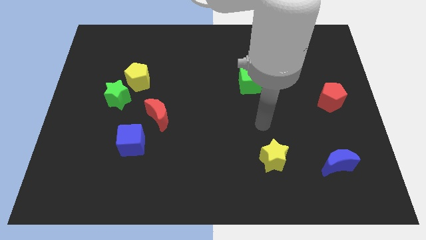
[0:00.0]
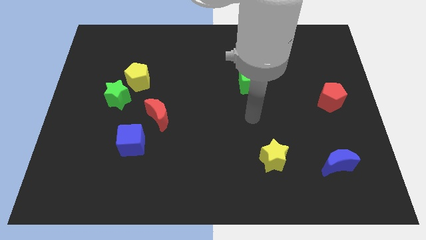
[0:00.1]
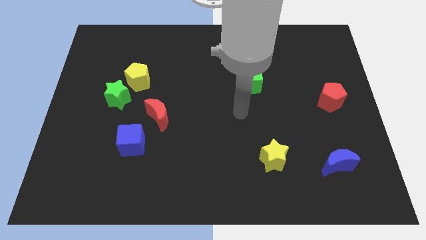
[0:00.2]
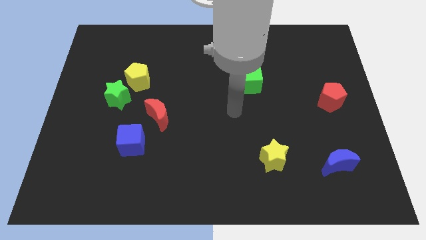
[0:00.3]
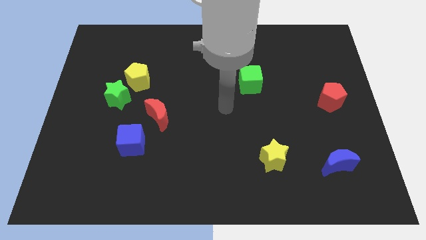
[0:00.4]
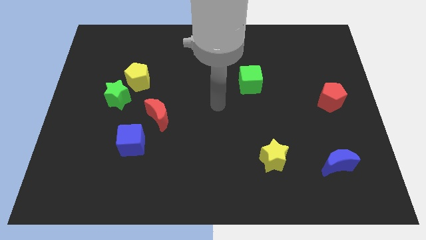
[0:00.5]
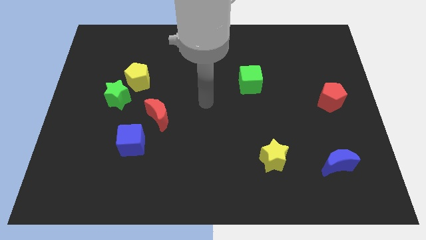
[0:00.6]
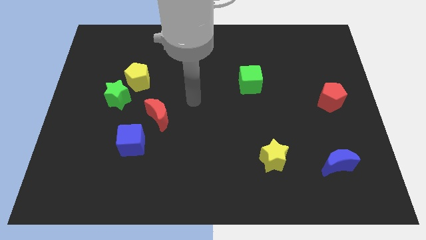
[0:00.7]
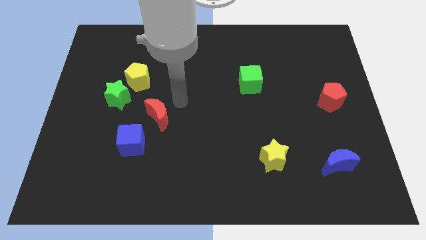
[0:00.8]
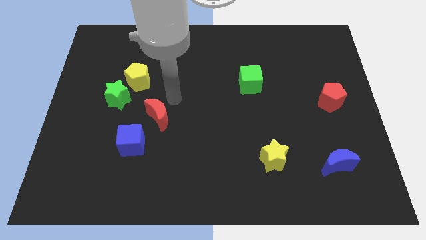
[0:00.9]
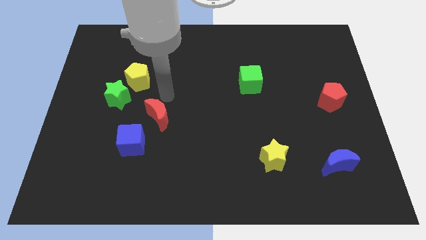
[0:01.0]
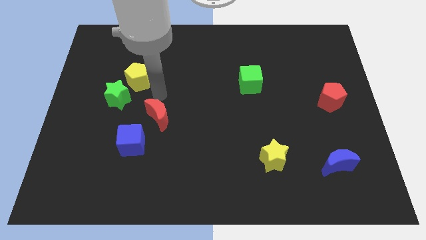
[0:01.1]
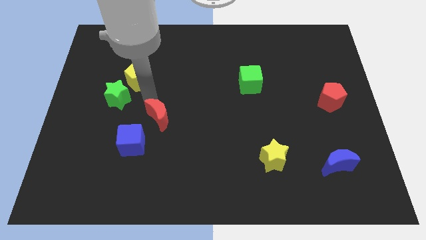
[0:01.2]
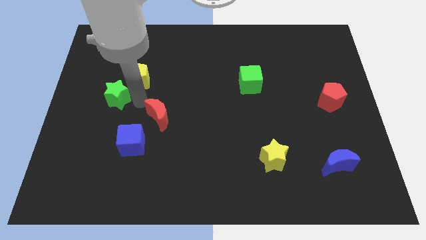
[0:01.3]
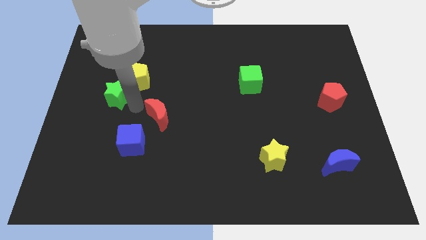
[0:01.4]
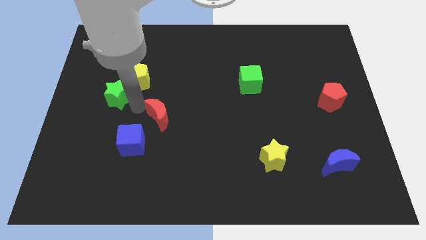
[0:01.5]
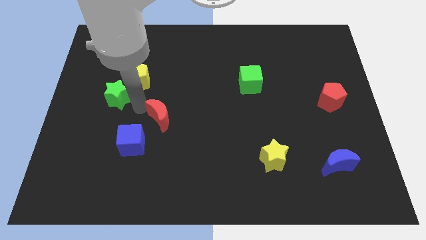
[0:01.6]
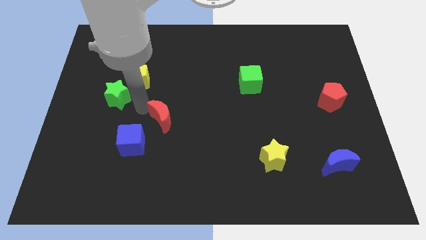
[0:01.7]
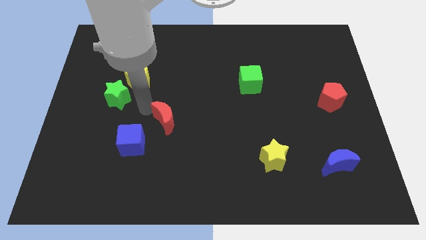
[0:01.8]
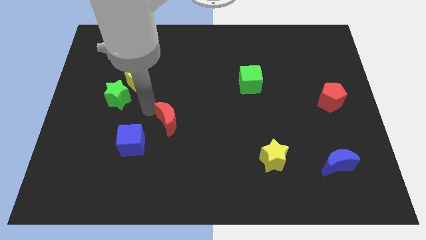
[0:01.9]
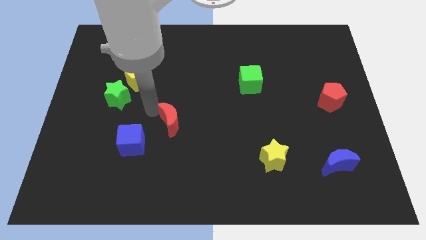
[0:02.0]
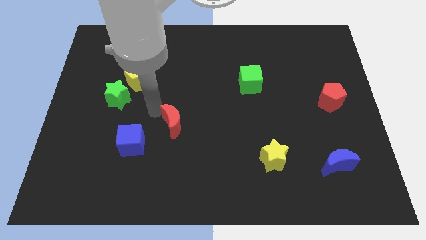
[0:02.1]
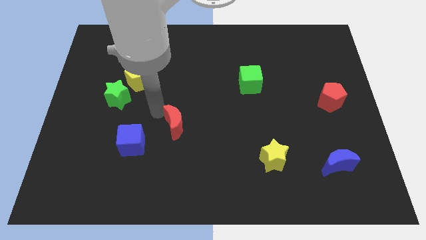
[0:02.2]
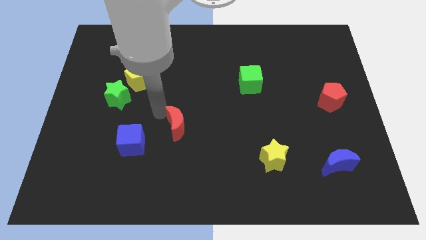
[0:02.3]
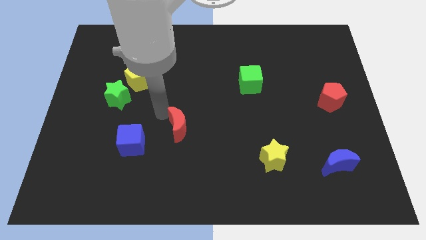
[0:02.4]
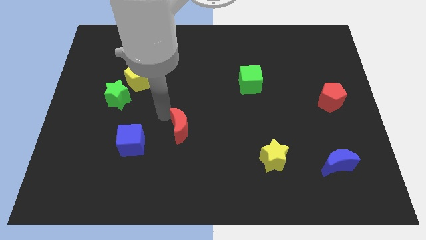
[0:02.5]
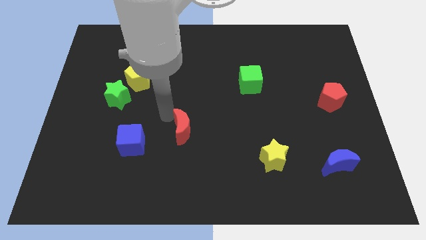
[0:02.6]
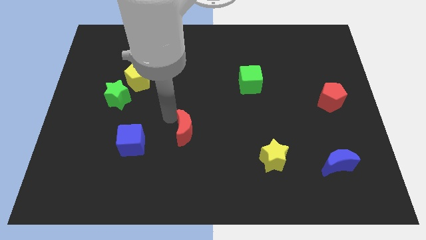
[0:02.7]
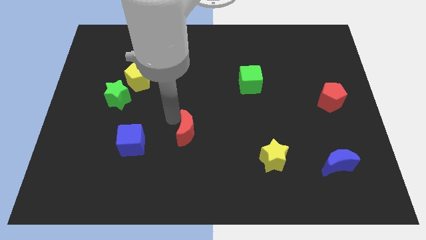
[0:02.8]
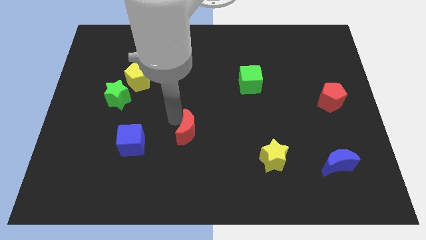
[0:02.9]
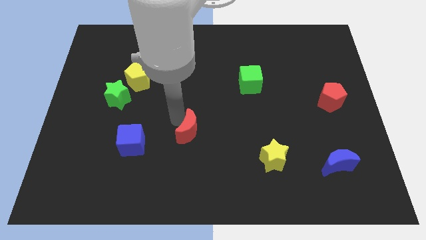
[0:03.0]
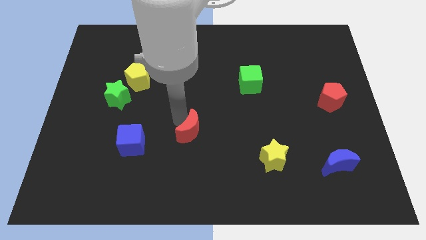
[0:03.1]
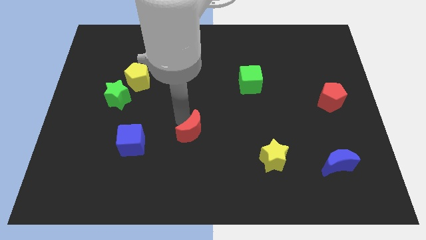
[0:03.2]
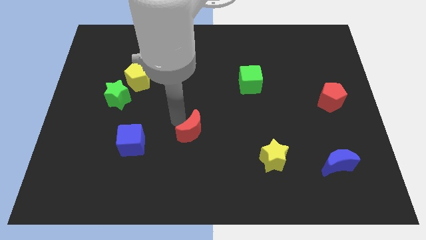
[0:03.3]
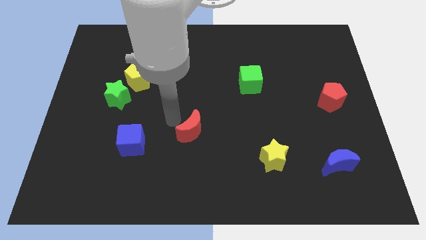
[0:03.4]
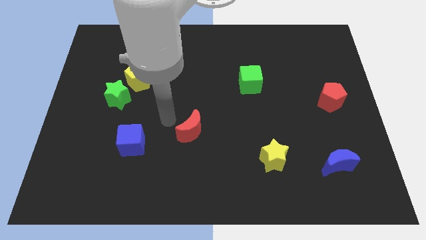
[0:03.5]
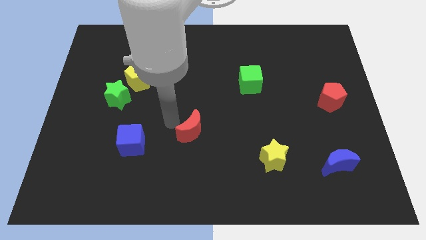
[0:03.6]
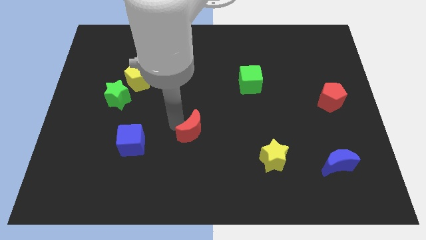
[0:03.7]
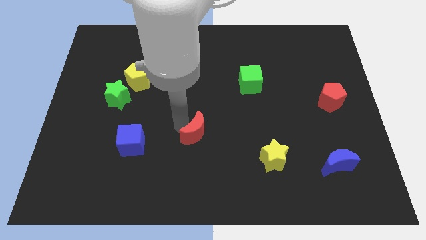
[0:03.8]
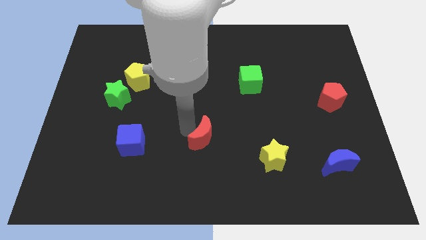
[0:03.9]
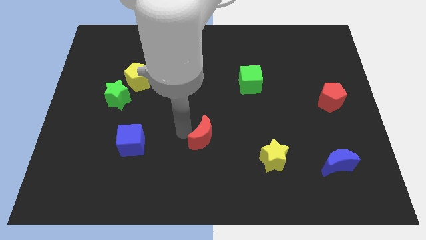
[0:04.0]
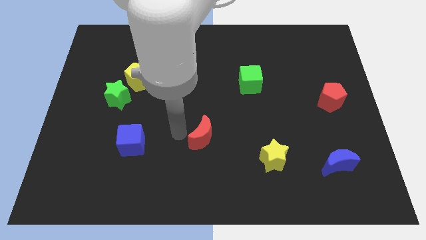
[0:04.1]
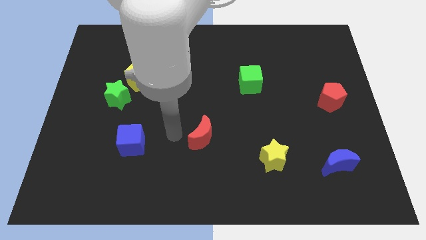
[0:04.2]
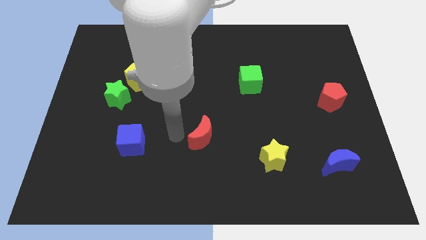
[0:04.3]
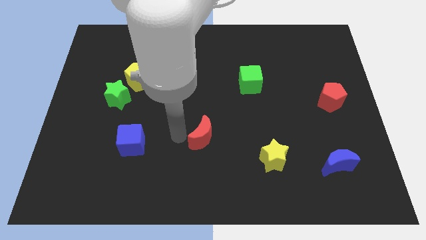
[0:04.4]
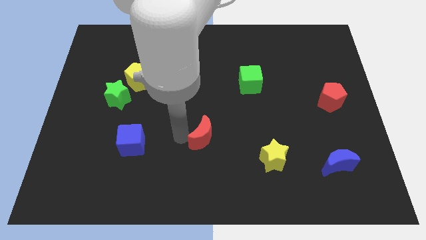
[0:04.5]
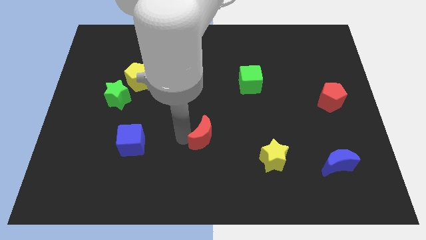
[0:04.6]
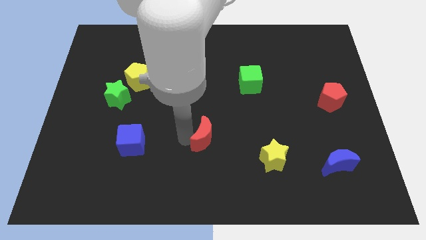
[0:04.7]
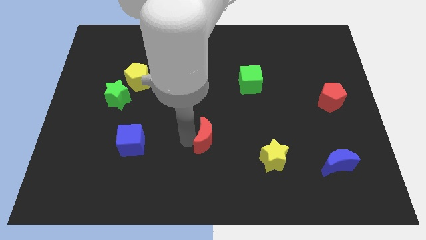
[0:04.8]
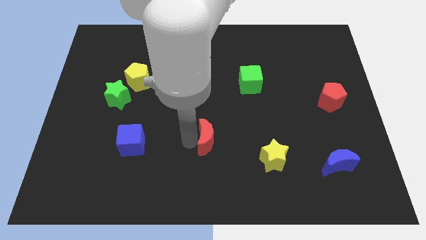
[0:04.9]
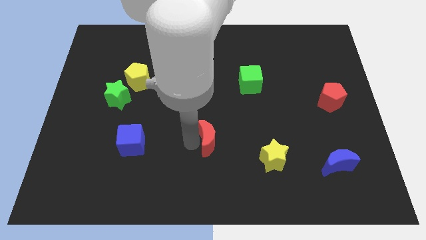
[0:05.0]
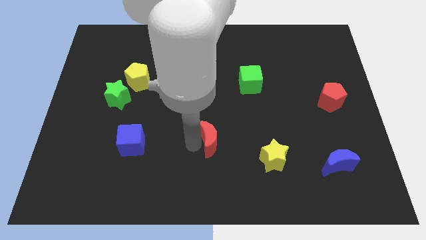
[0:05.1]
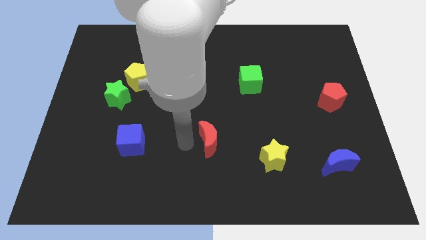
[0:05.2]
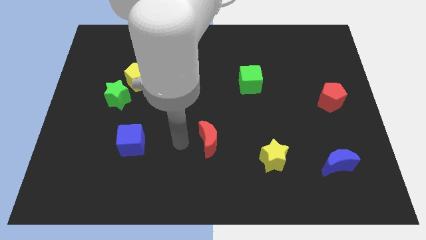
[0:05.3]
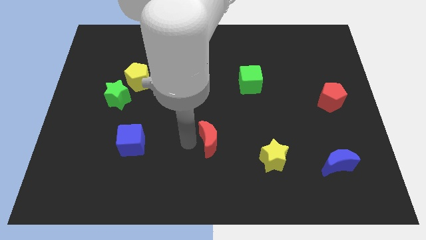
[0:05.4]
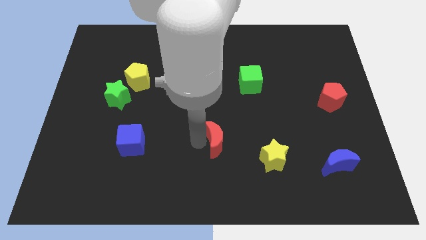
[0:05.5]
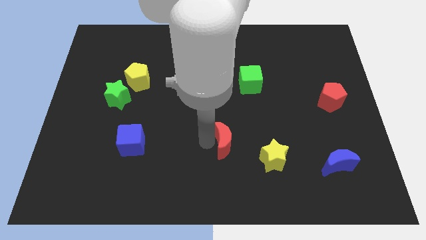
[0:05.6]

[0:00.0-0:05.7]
put the red moon diagonally up and to the left of the yellow star

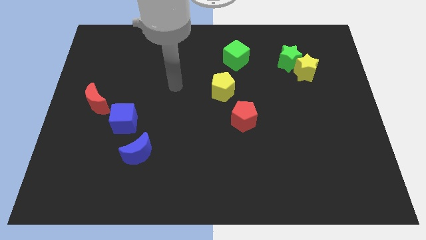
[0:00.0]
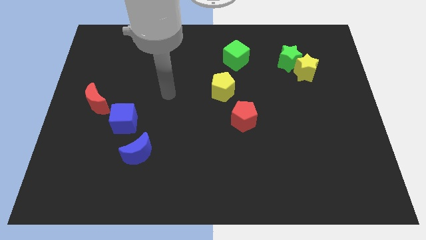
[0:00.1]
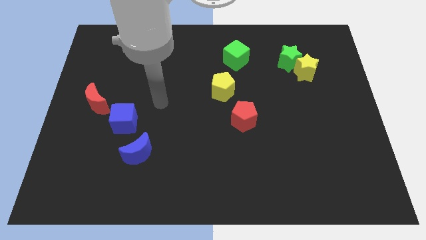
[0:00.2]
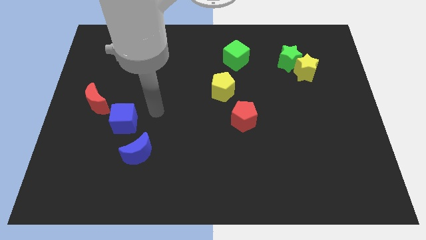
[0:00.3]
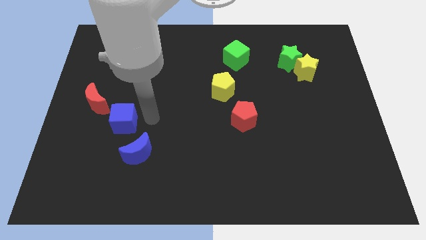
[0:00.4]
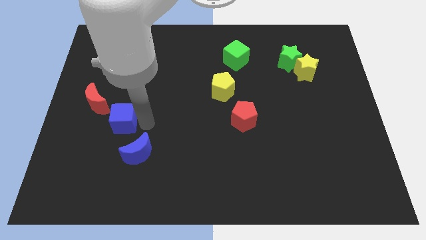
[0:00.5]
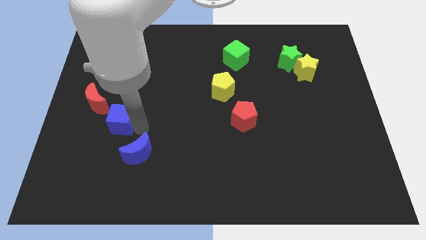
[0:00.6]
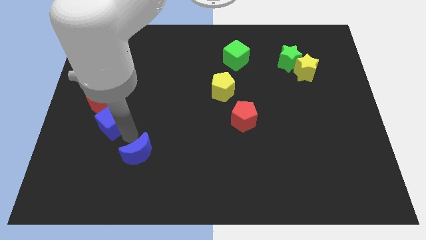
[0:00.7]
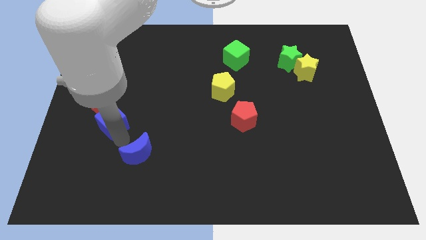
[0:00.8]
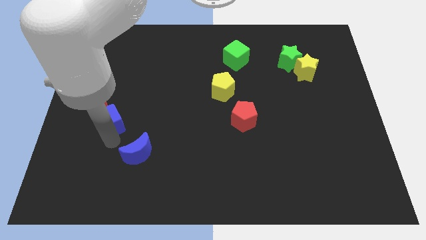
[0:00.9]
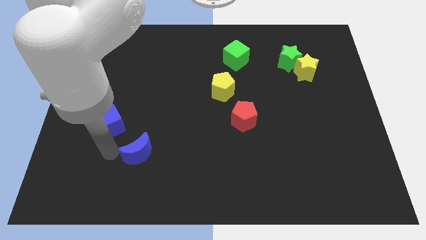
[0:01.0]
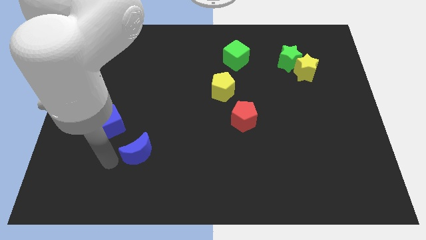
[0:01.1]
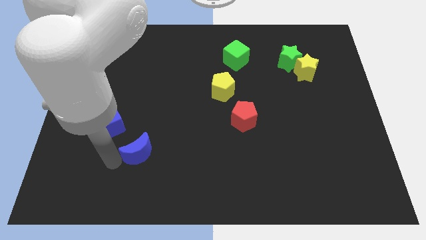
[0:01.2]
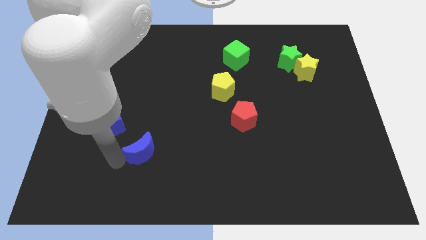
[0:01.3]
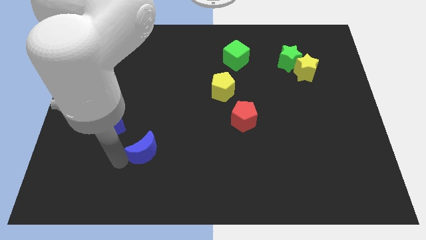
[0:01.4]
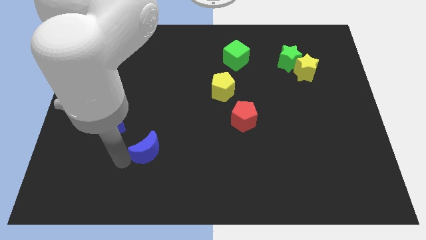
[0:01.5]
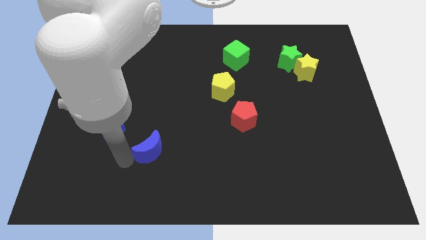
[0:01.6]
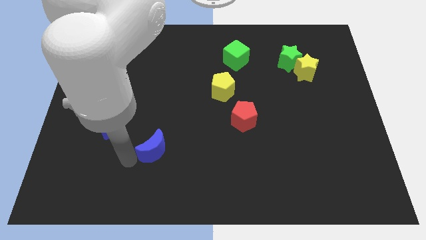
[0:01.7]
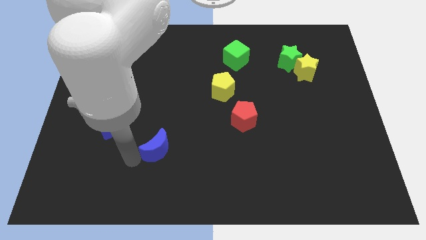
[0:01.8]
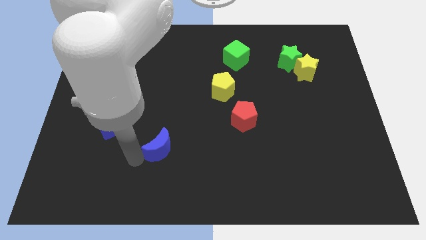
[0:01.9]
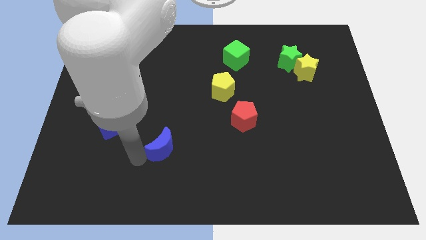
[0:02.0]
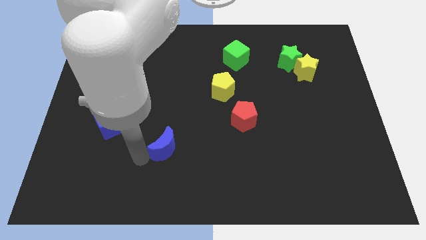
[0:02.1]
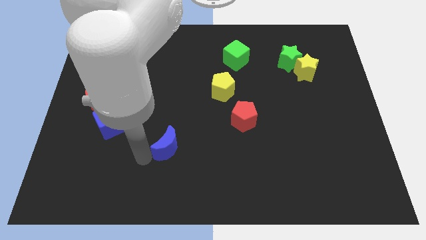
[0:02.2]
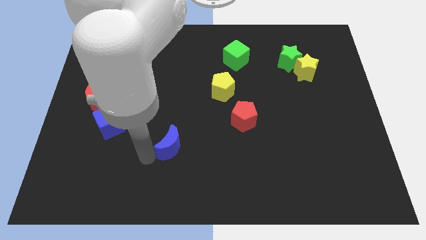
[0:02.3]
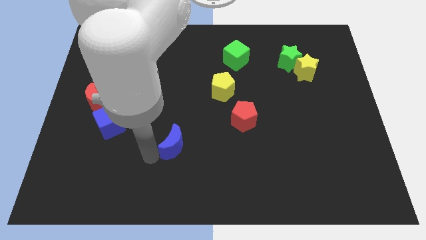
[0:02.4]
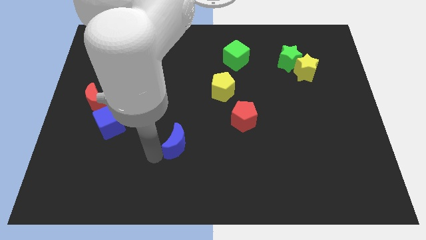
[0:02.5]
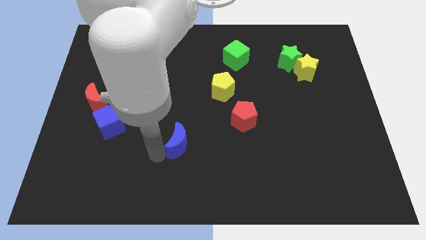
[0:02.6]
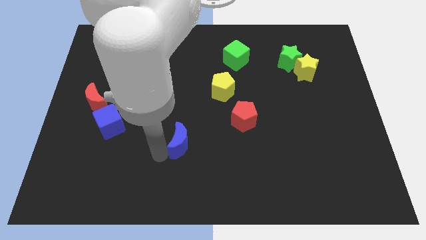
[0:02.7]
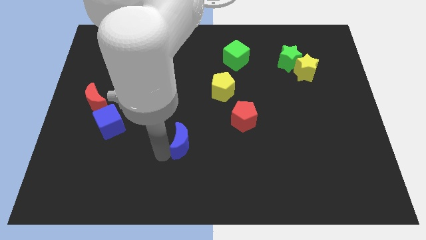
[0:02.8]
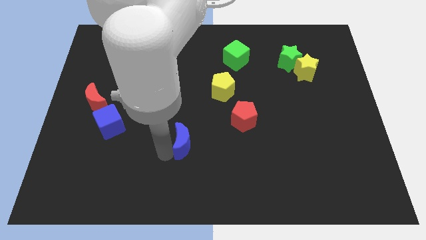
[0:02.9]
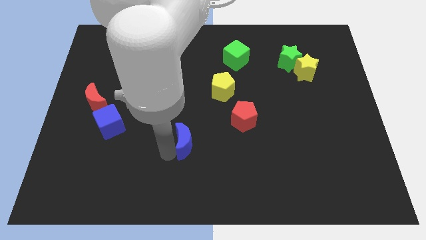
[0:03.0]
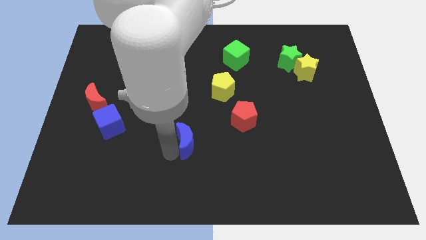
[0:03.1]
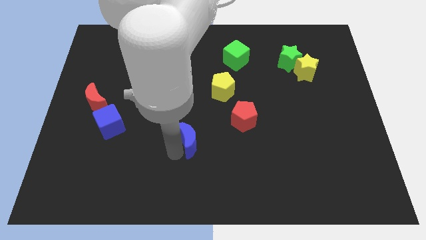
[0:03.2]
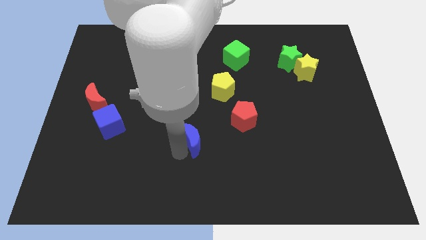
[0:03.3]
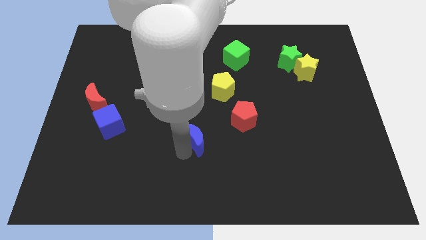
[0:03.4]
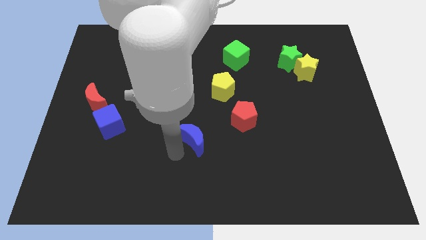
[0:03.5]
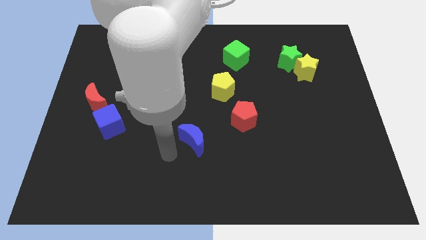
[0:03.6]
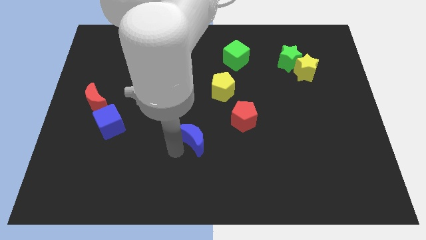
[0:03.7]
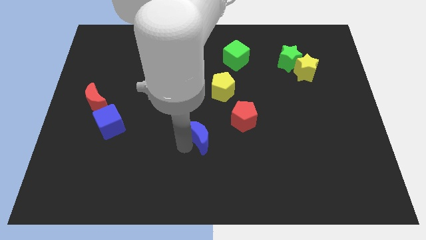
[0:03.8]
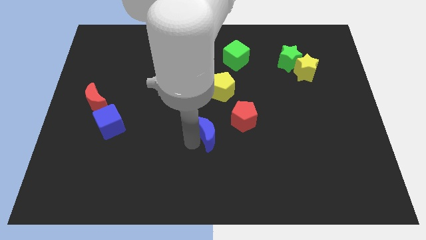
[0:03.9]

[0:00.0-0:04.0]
slide the blue moon below the yellow pentagon
